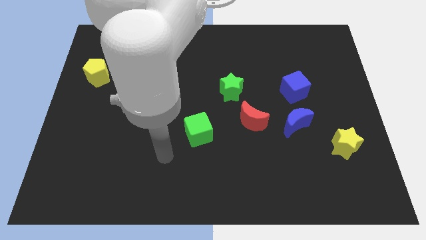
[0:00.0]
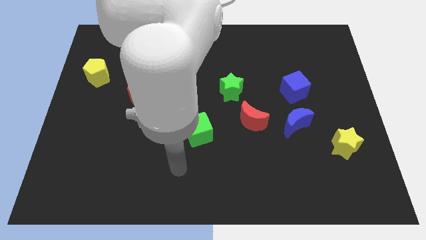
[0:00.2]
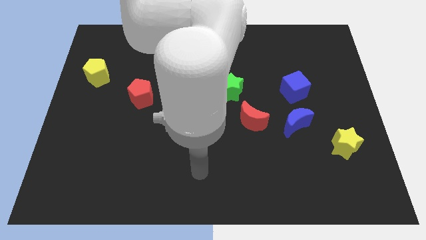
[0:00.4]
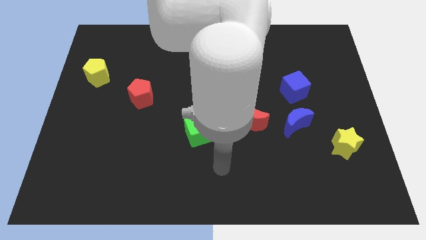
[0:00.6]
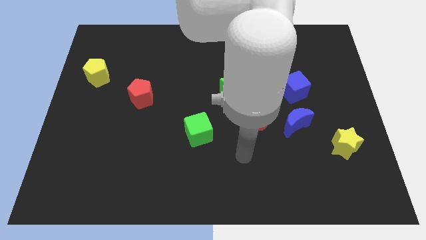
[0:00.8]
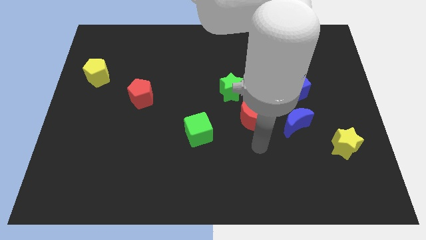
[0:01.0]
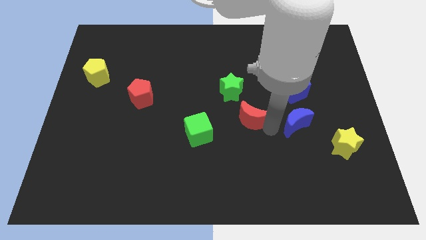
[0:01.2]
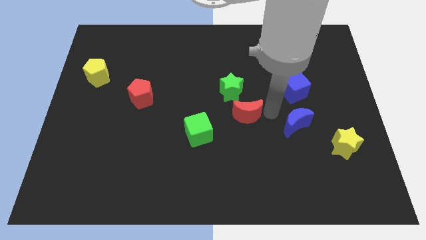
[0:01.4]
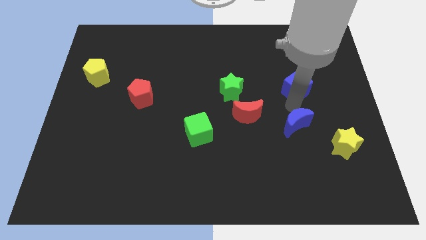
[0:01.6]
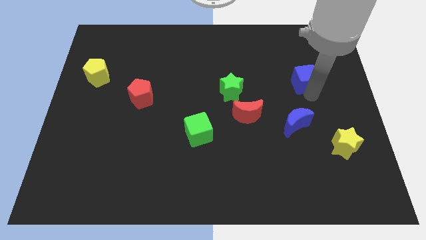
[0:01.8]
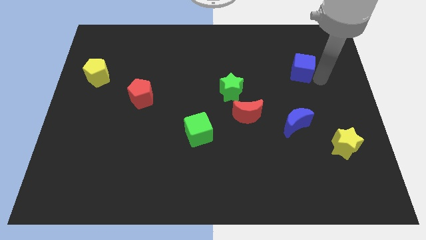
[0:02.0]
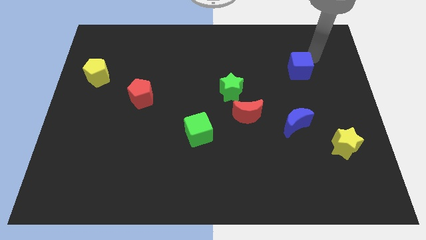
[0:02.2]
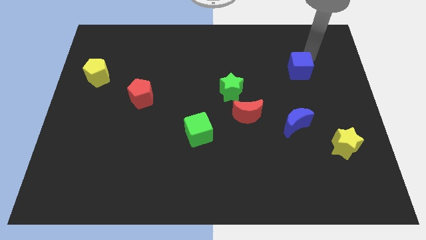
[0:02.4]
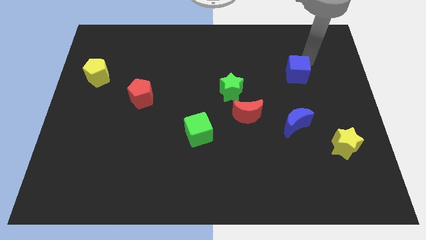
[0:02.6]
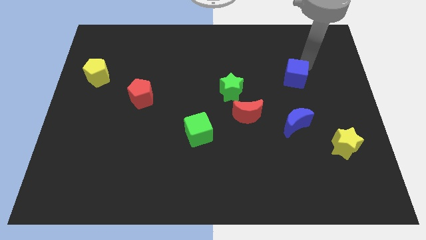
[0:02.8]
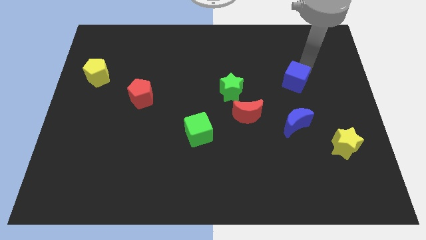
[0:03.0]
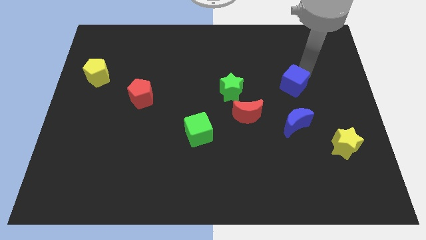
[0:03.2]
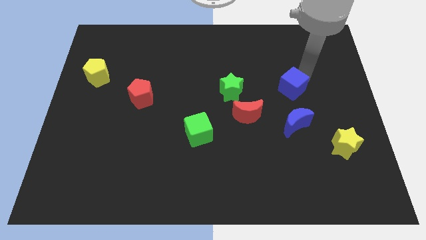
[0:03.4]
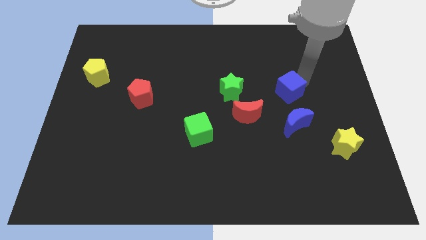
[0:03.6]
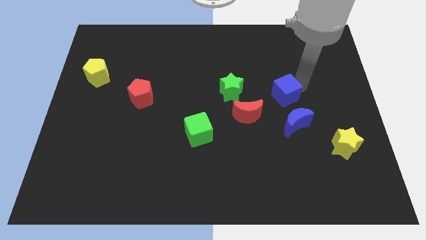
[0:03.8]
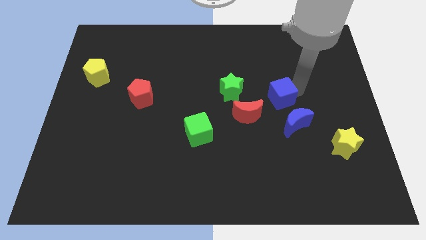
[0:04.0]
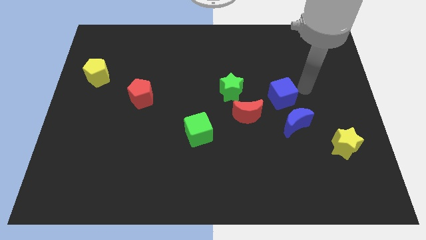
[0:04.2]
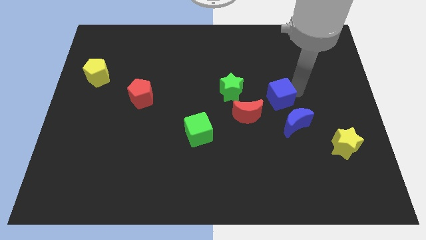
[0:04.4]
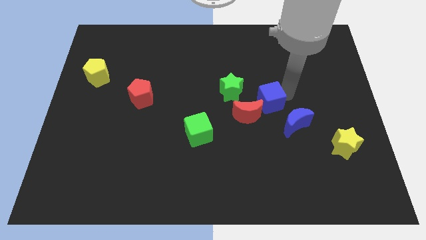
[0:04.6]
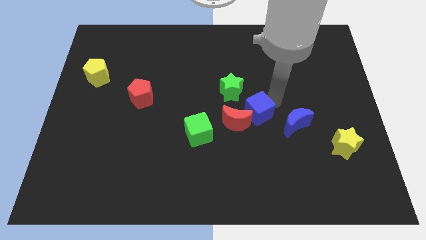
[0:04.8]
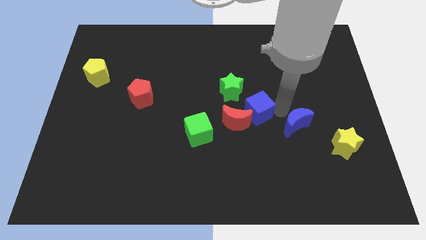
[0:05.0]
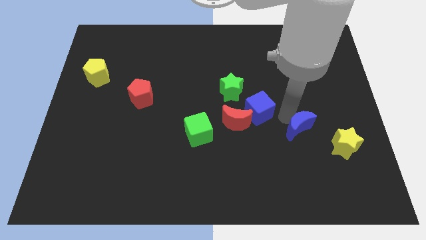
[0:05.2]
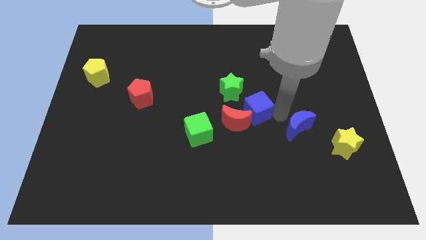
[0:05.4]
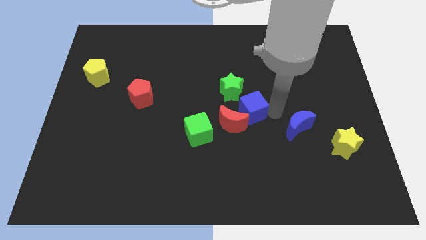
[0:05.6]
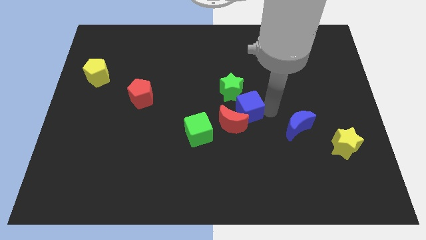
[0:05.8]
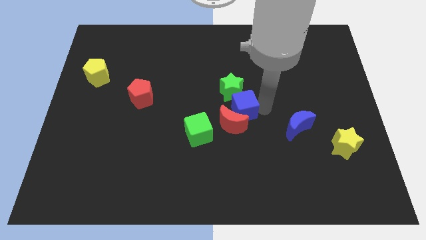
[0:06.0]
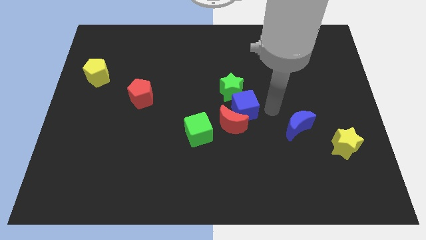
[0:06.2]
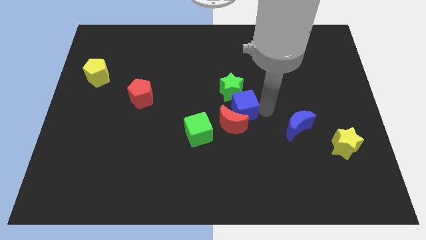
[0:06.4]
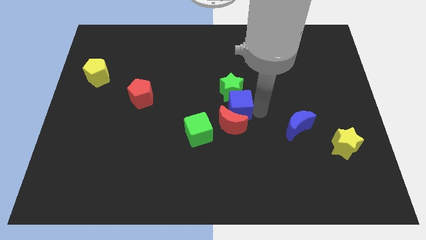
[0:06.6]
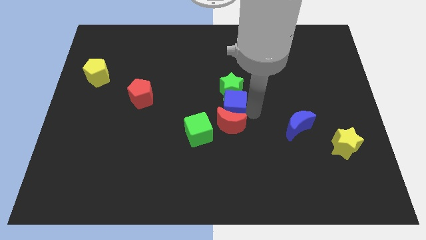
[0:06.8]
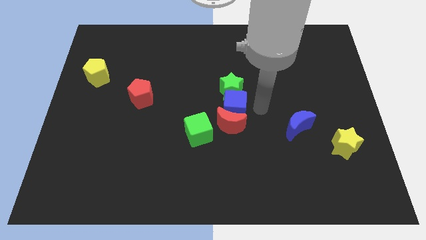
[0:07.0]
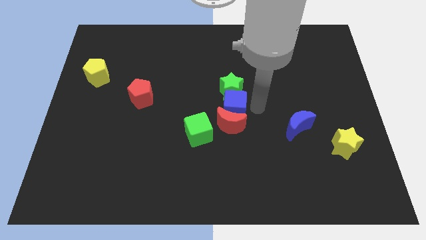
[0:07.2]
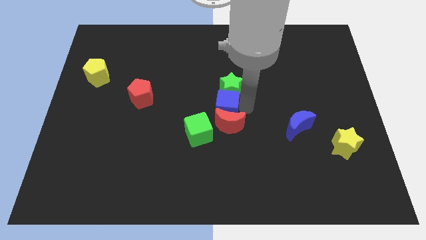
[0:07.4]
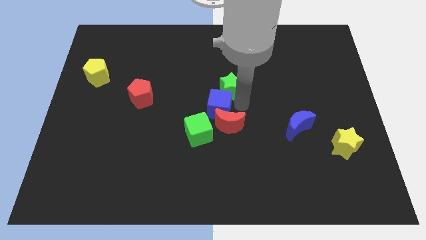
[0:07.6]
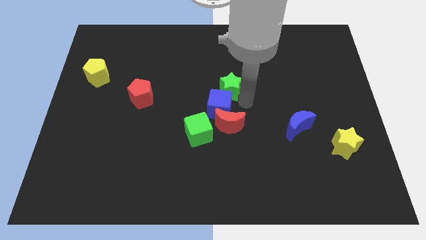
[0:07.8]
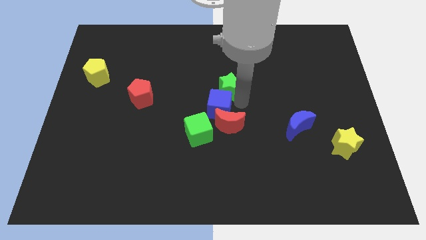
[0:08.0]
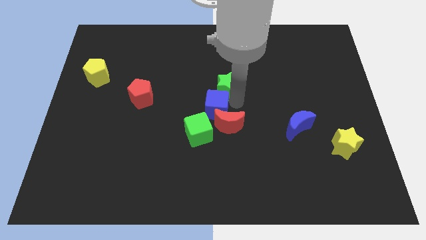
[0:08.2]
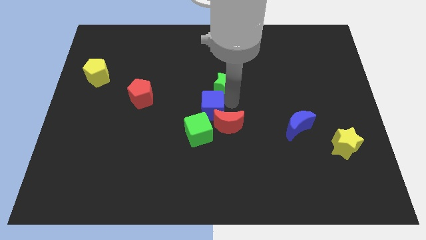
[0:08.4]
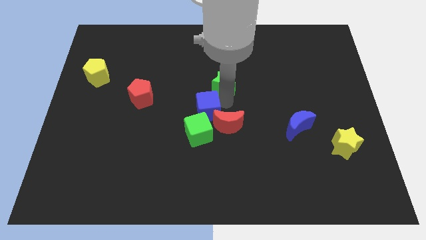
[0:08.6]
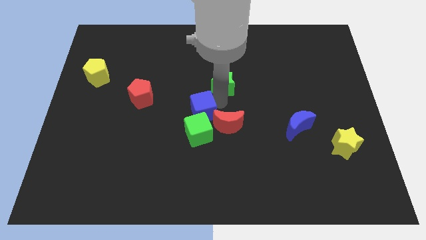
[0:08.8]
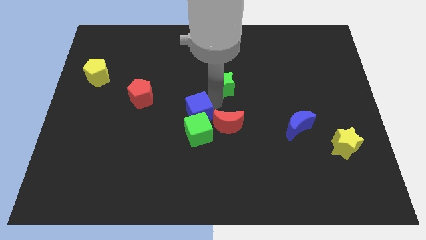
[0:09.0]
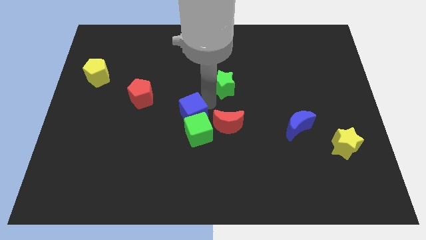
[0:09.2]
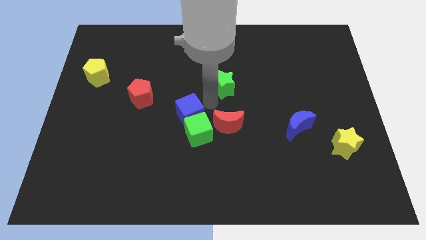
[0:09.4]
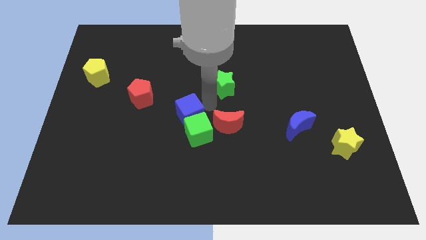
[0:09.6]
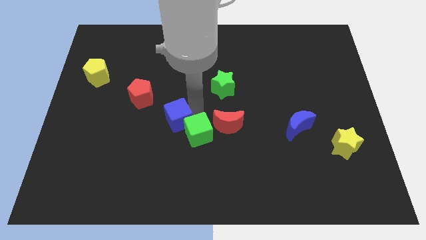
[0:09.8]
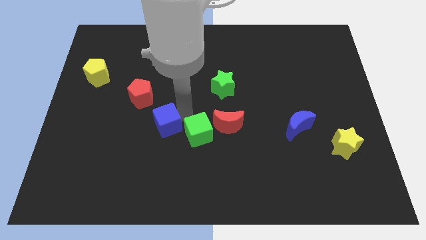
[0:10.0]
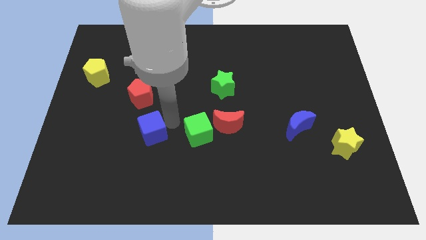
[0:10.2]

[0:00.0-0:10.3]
slide the blue cube to the bottom side of the red pentagon

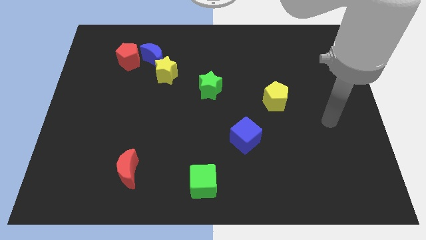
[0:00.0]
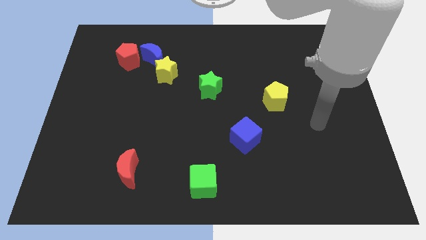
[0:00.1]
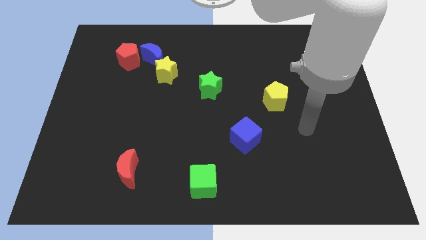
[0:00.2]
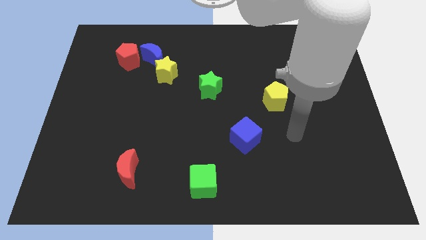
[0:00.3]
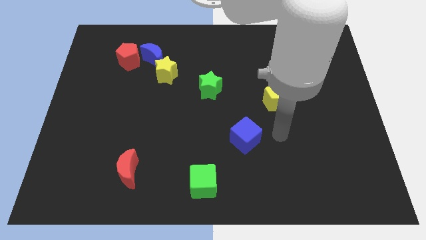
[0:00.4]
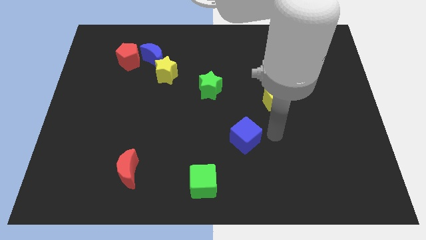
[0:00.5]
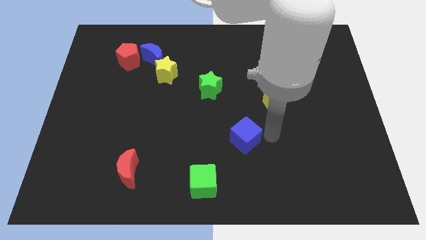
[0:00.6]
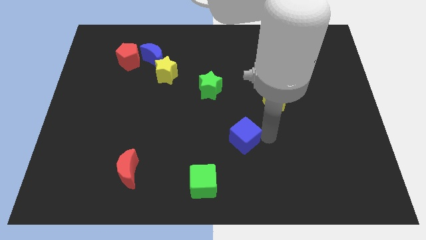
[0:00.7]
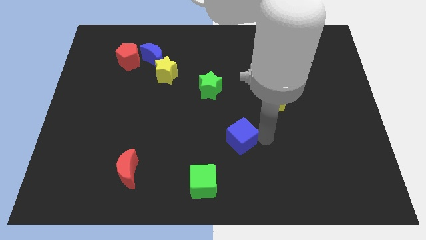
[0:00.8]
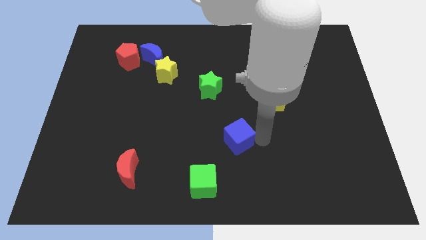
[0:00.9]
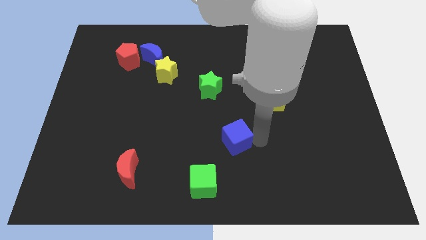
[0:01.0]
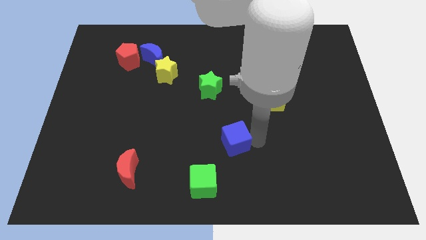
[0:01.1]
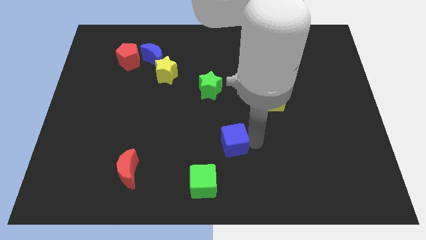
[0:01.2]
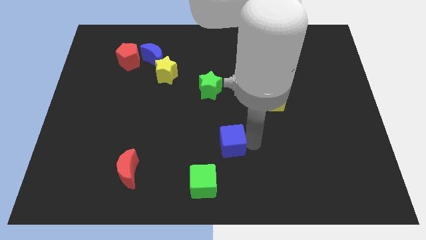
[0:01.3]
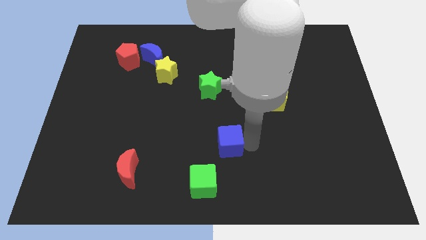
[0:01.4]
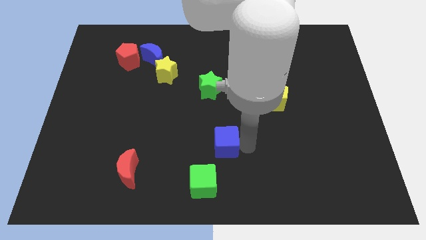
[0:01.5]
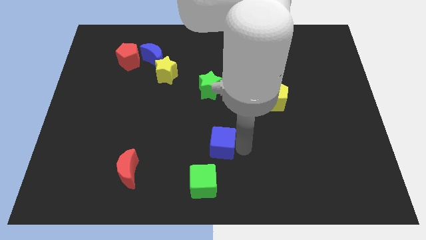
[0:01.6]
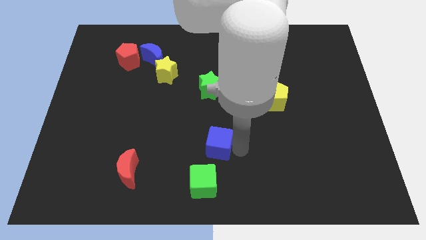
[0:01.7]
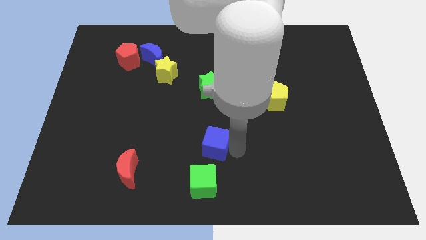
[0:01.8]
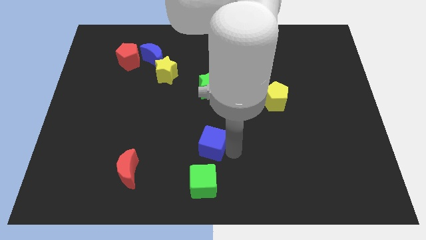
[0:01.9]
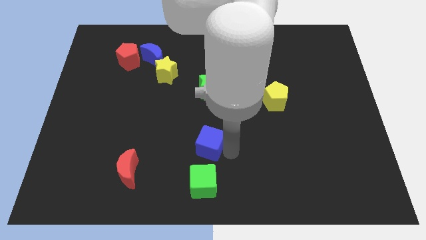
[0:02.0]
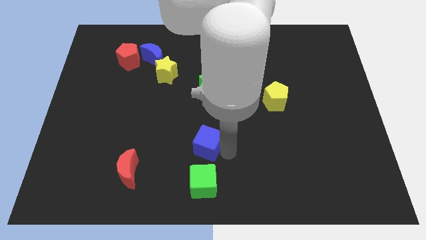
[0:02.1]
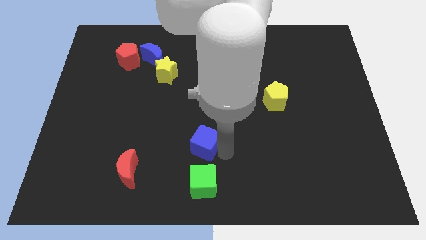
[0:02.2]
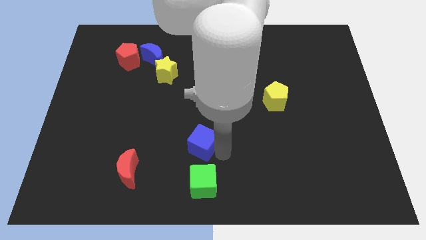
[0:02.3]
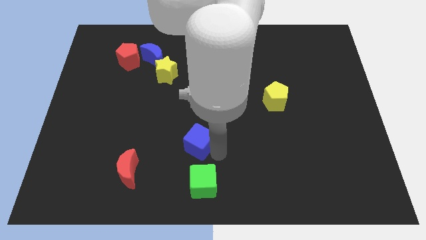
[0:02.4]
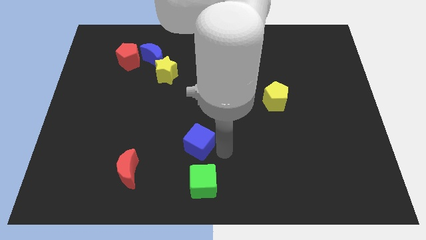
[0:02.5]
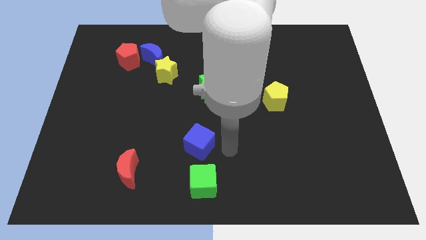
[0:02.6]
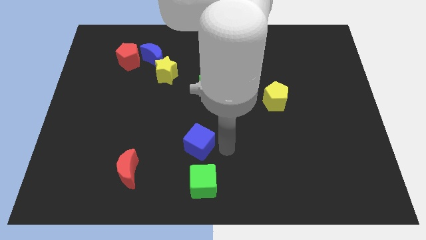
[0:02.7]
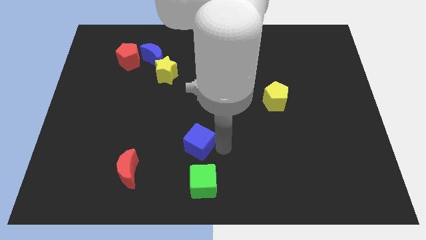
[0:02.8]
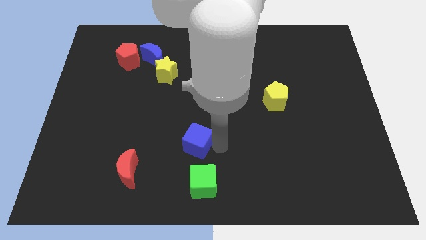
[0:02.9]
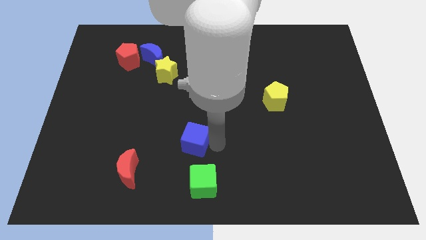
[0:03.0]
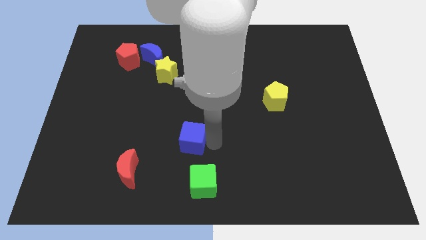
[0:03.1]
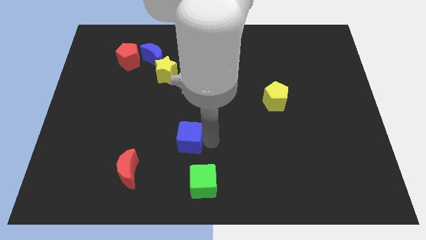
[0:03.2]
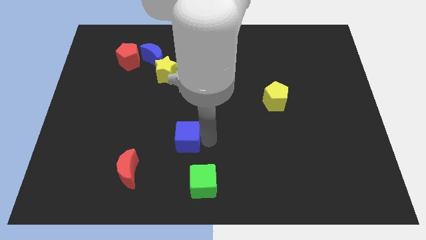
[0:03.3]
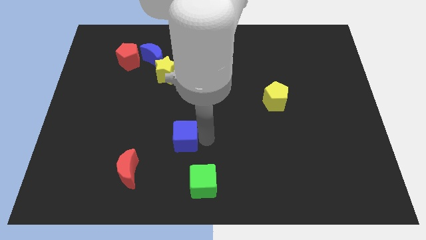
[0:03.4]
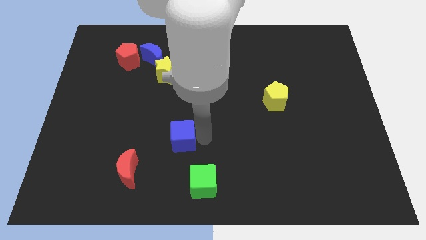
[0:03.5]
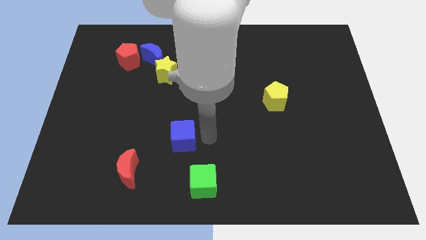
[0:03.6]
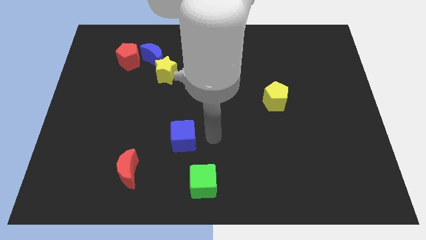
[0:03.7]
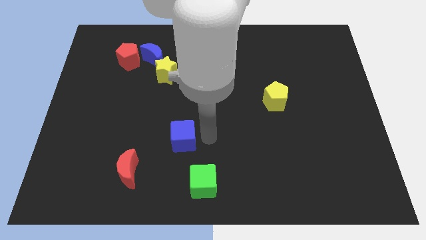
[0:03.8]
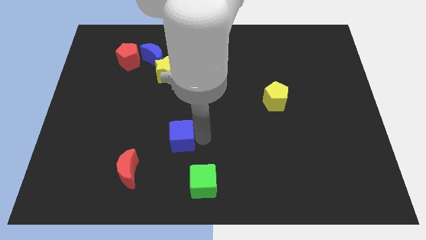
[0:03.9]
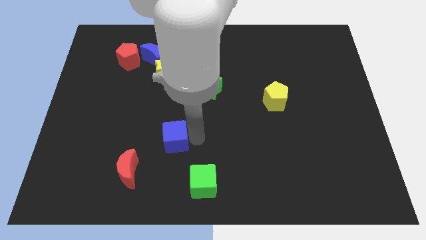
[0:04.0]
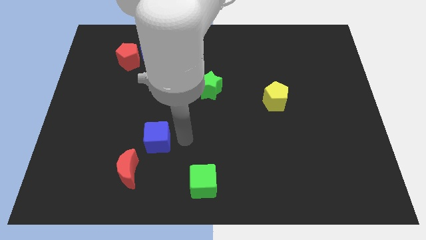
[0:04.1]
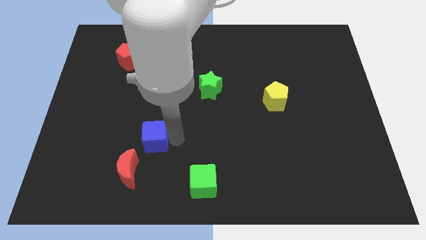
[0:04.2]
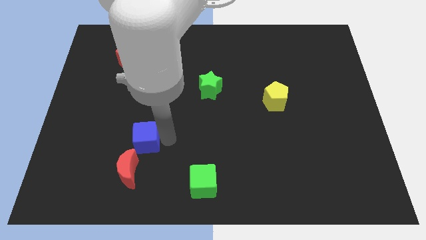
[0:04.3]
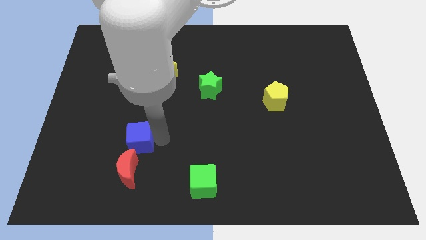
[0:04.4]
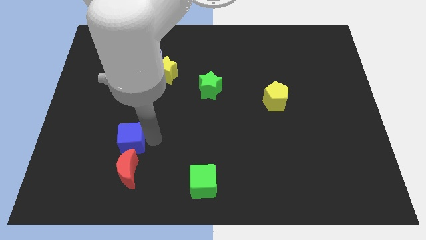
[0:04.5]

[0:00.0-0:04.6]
push the blue cube to the top left of the red moon
